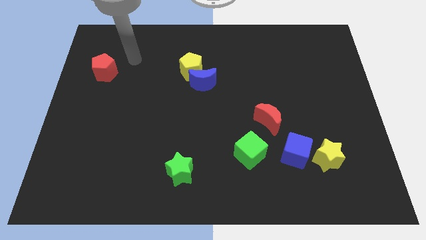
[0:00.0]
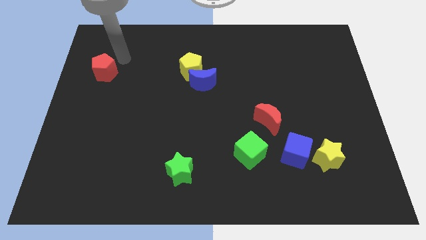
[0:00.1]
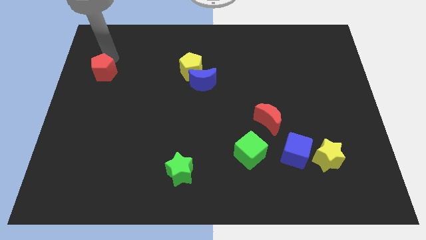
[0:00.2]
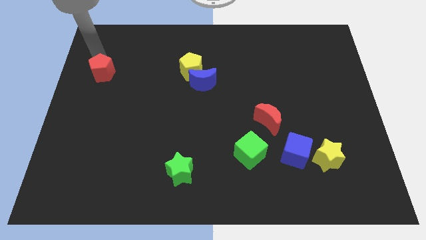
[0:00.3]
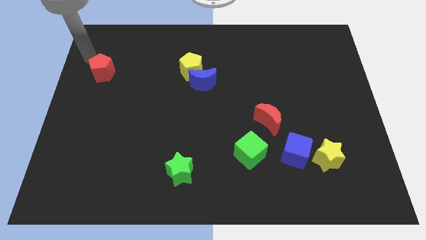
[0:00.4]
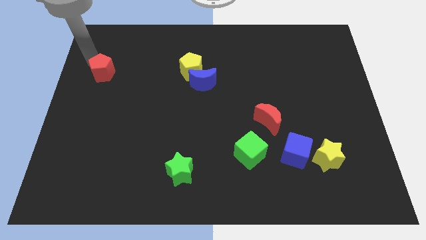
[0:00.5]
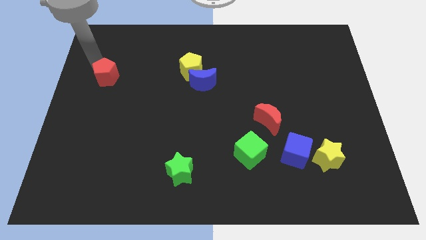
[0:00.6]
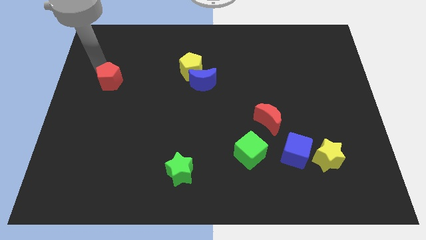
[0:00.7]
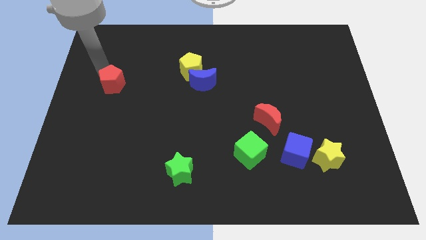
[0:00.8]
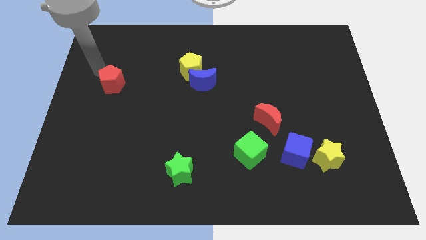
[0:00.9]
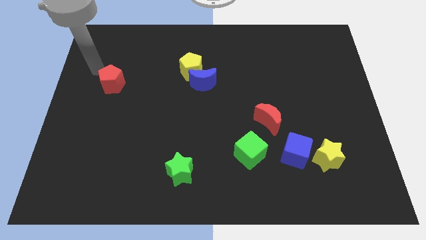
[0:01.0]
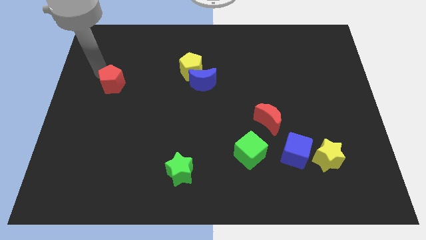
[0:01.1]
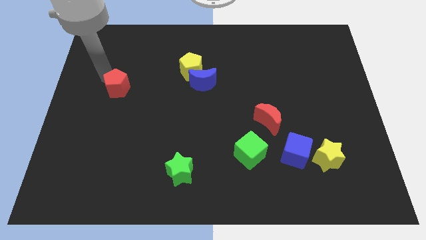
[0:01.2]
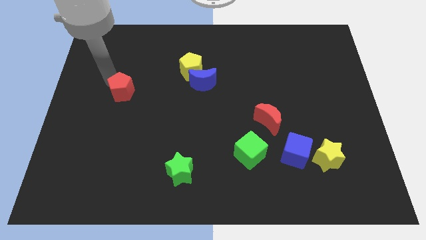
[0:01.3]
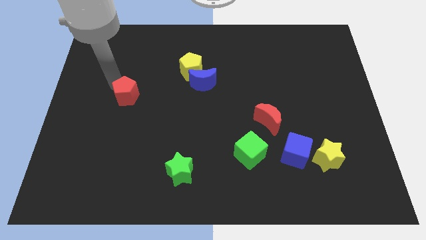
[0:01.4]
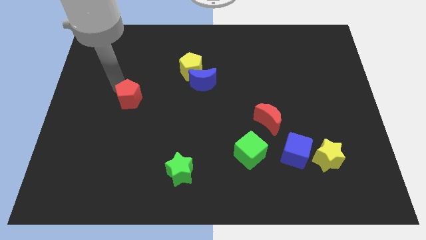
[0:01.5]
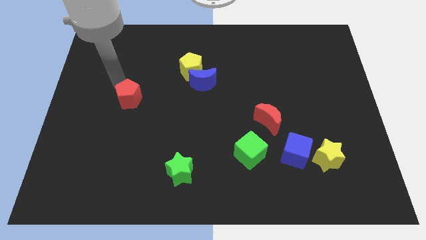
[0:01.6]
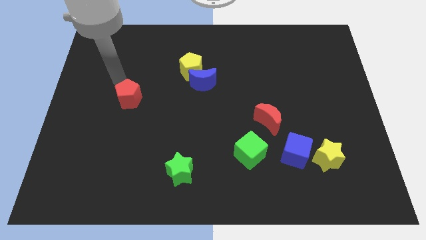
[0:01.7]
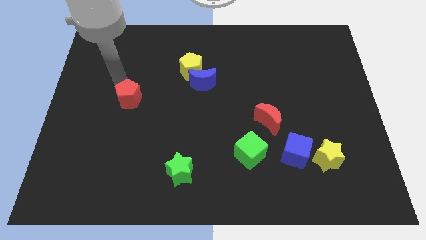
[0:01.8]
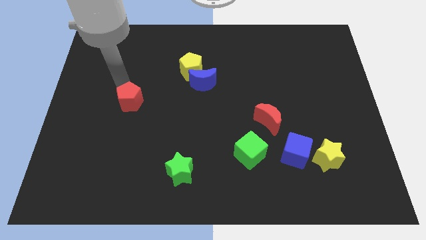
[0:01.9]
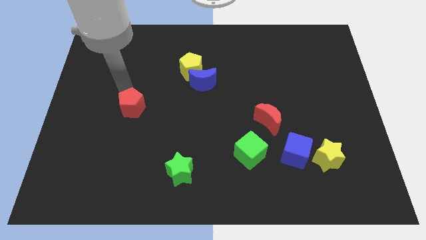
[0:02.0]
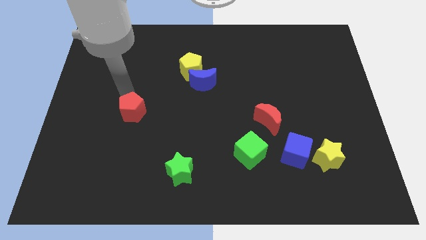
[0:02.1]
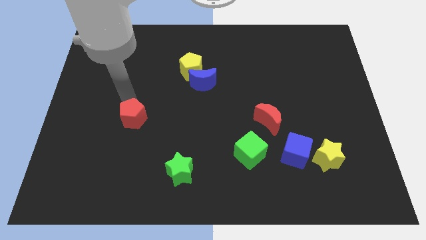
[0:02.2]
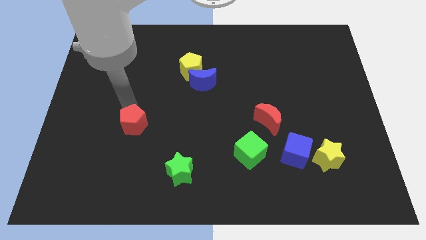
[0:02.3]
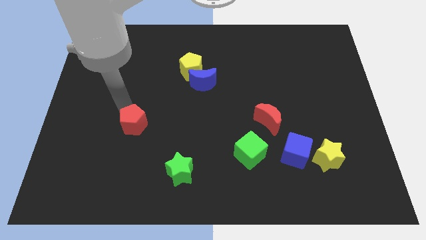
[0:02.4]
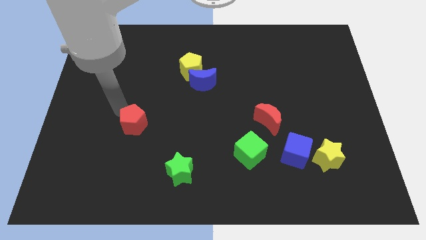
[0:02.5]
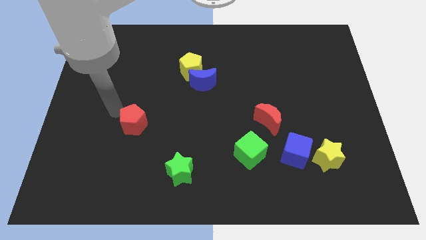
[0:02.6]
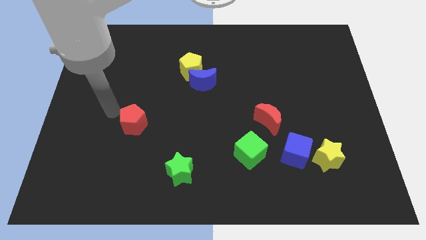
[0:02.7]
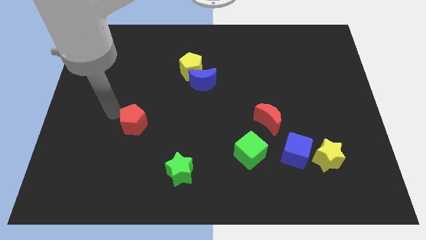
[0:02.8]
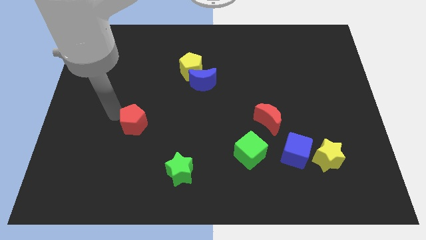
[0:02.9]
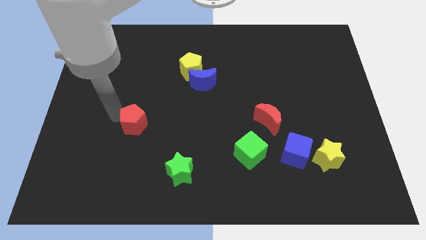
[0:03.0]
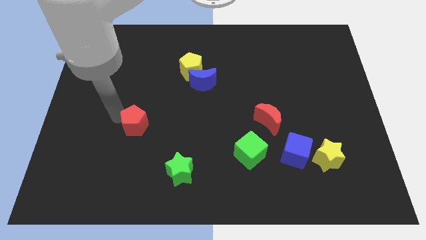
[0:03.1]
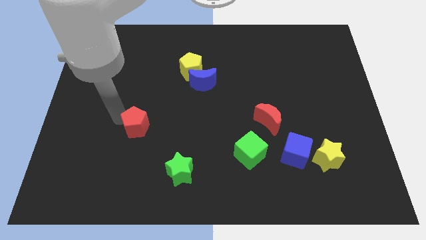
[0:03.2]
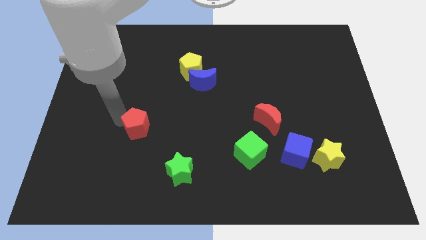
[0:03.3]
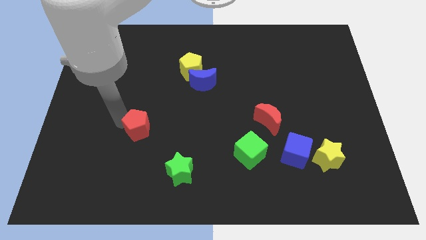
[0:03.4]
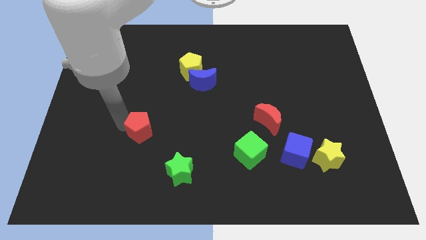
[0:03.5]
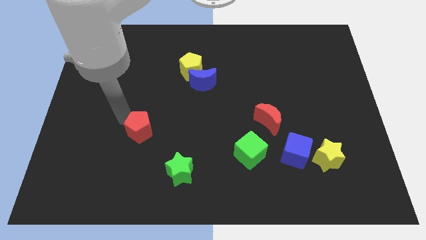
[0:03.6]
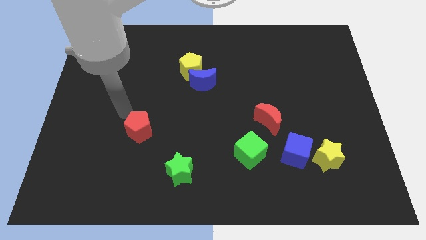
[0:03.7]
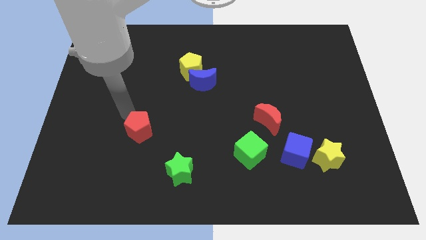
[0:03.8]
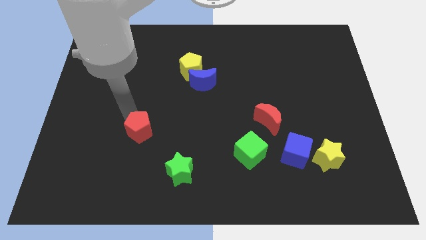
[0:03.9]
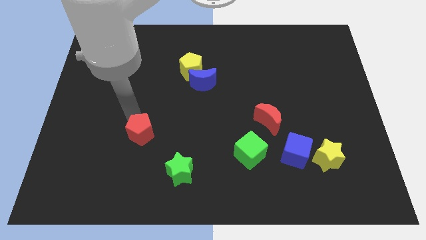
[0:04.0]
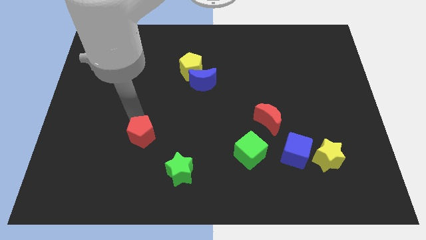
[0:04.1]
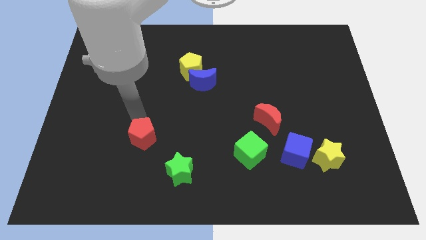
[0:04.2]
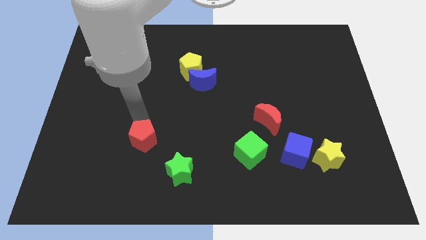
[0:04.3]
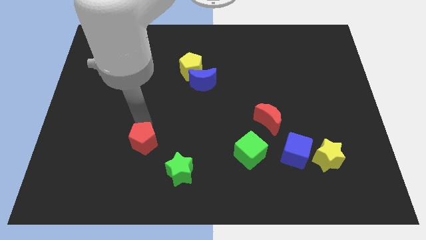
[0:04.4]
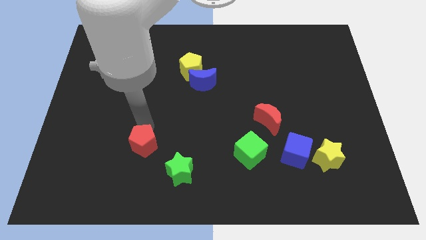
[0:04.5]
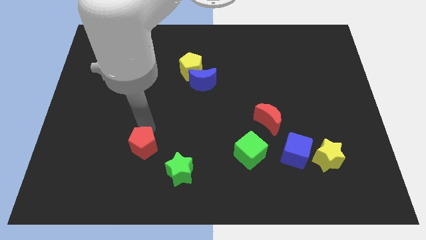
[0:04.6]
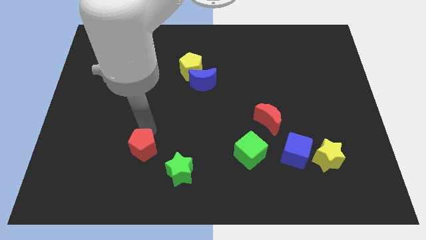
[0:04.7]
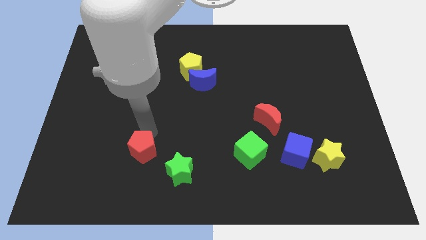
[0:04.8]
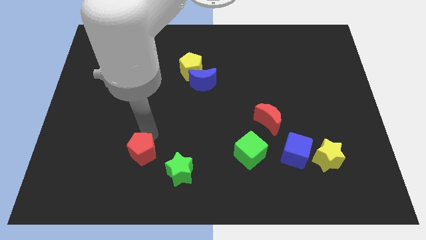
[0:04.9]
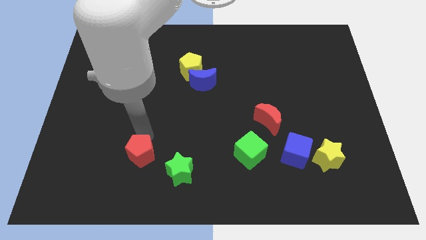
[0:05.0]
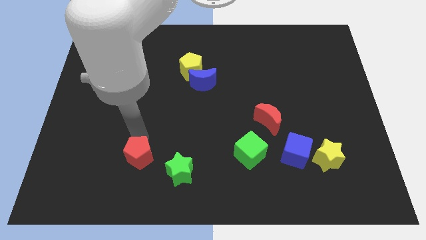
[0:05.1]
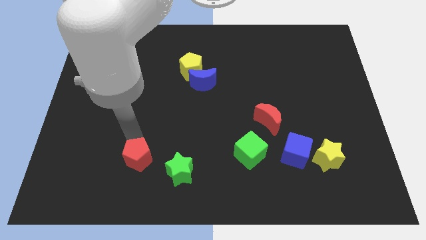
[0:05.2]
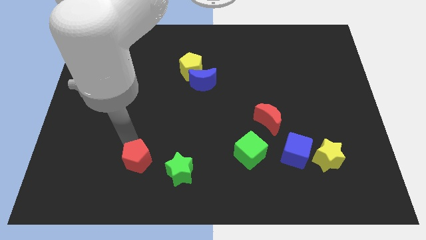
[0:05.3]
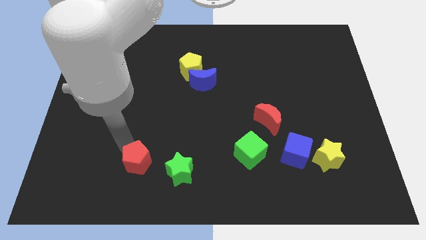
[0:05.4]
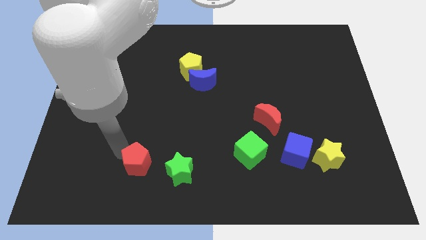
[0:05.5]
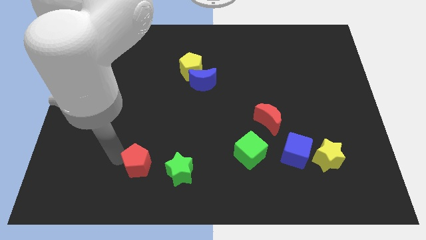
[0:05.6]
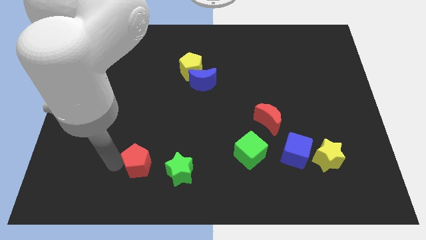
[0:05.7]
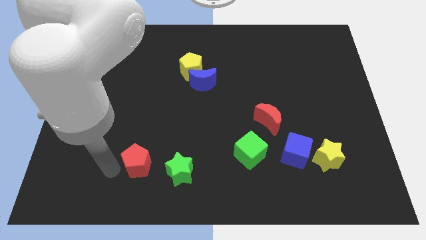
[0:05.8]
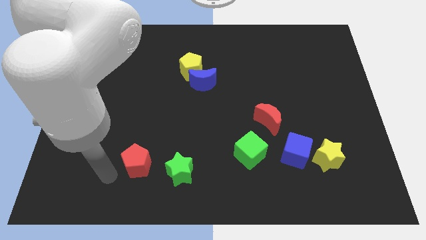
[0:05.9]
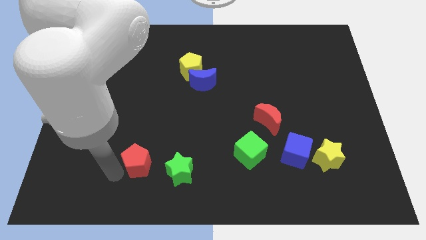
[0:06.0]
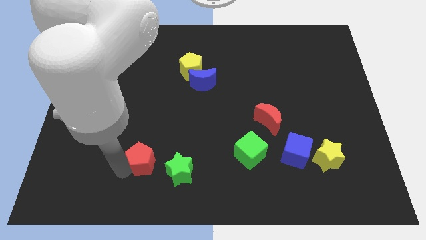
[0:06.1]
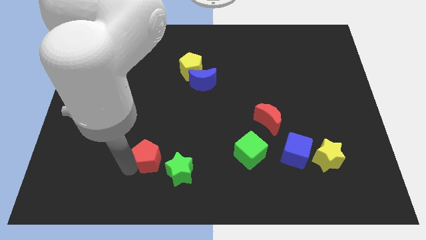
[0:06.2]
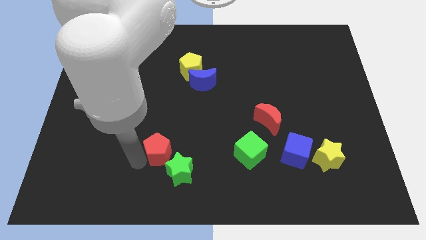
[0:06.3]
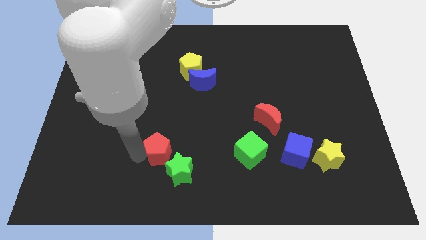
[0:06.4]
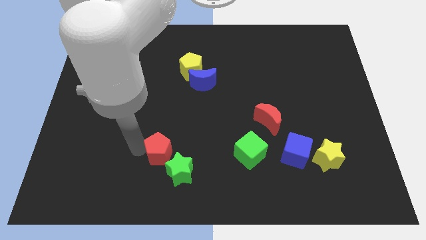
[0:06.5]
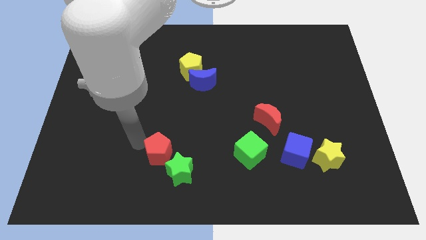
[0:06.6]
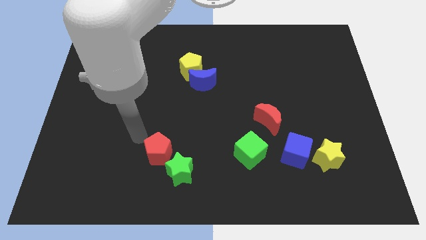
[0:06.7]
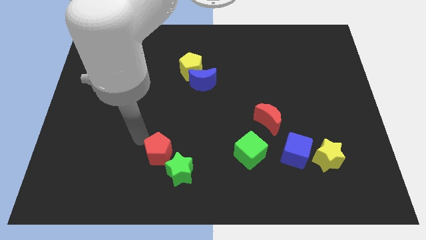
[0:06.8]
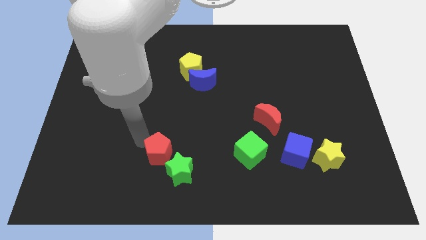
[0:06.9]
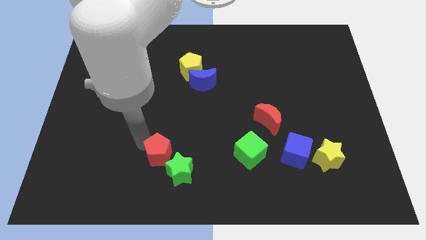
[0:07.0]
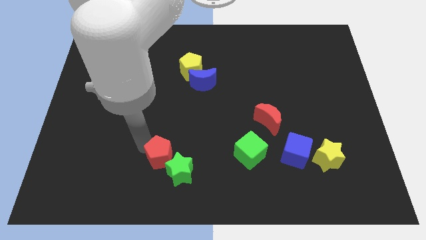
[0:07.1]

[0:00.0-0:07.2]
move the red pentagon next to the green star

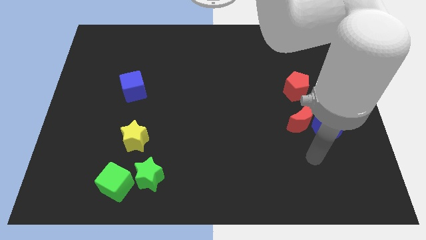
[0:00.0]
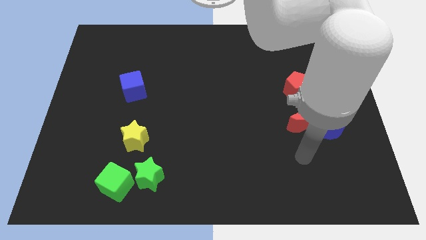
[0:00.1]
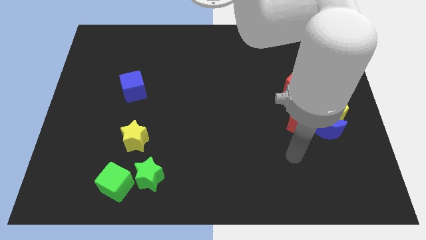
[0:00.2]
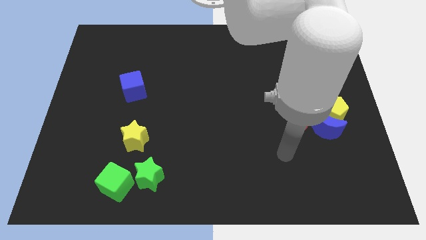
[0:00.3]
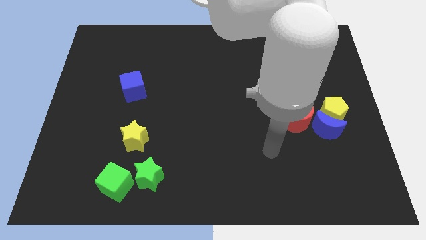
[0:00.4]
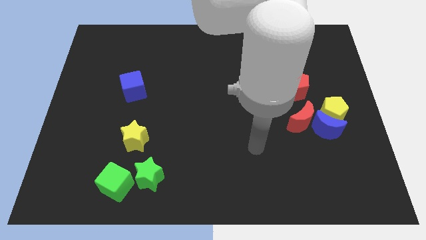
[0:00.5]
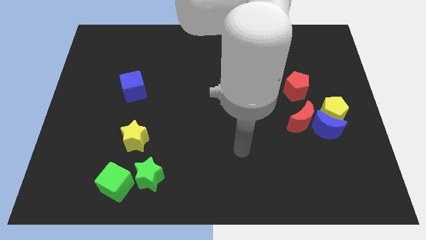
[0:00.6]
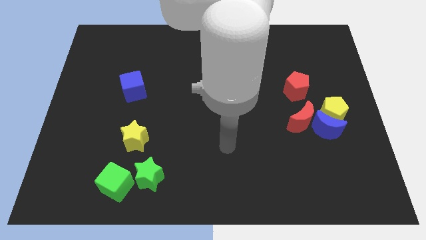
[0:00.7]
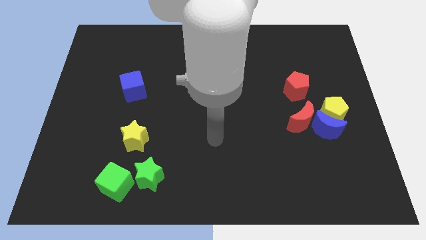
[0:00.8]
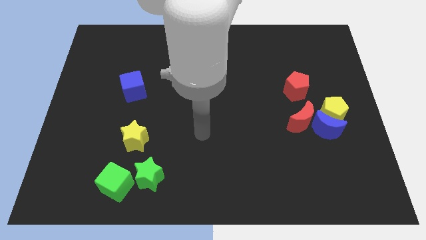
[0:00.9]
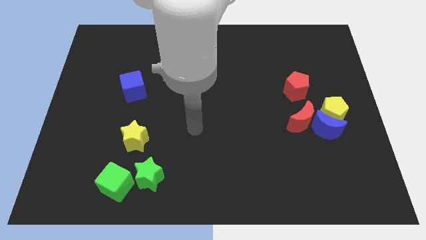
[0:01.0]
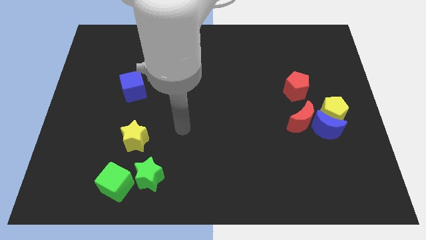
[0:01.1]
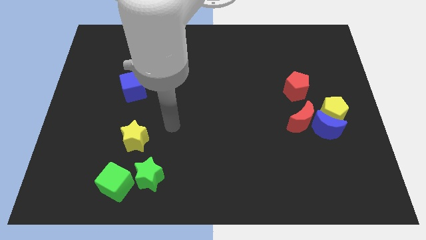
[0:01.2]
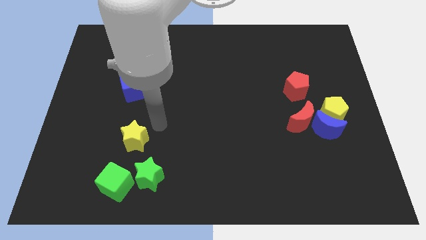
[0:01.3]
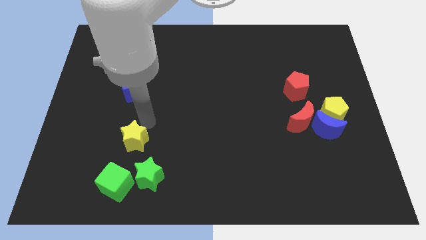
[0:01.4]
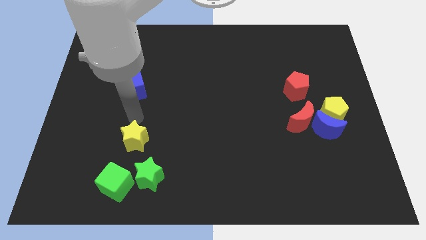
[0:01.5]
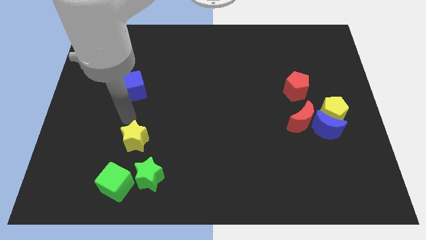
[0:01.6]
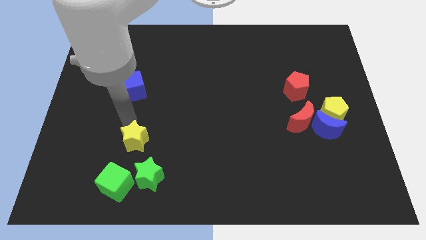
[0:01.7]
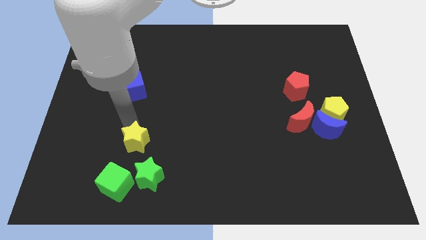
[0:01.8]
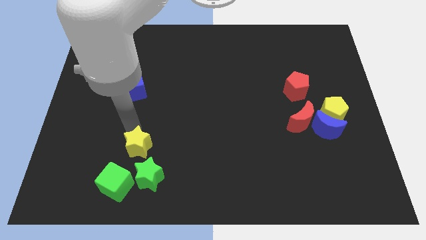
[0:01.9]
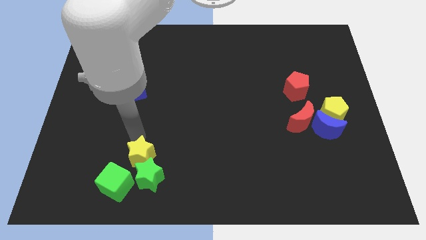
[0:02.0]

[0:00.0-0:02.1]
push the yellow star close to the green star
